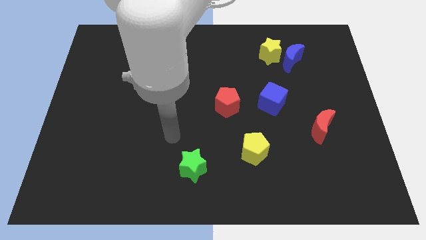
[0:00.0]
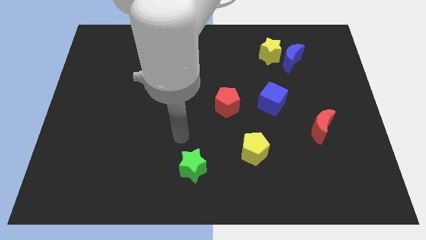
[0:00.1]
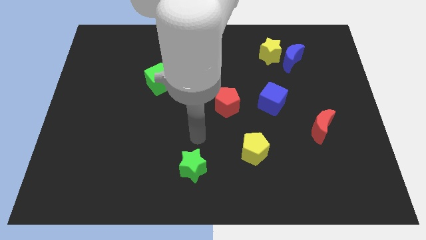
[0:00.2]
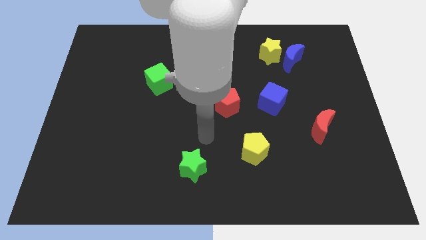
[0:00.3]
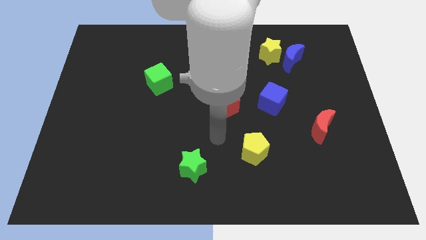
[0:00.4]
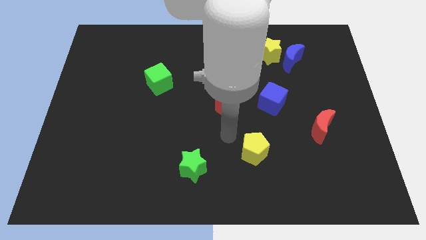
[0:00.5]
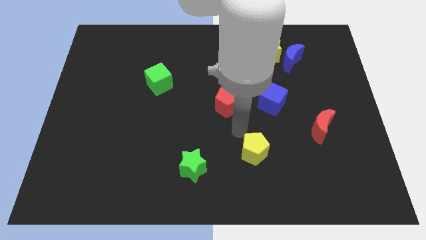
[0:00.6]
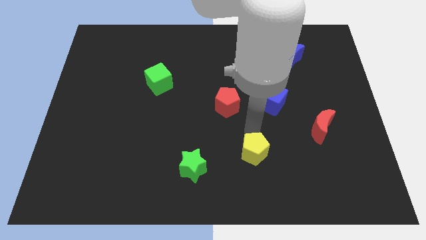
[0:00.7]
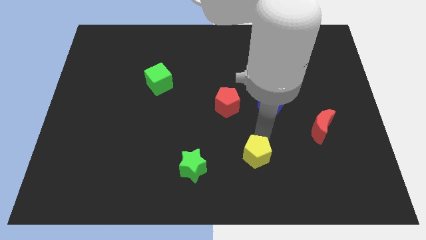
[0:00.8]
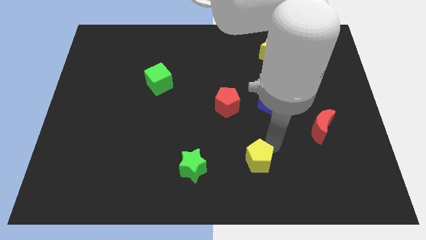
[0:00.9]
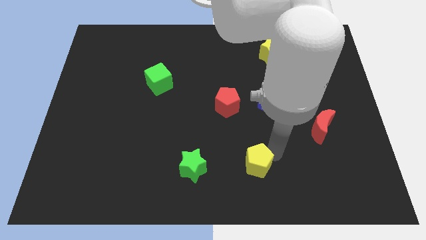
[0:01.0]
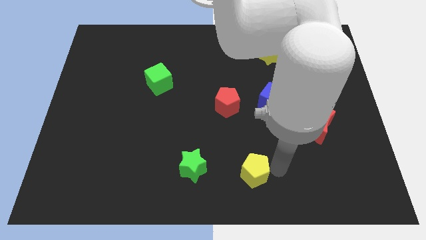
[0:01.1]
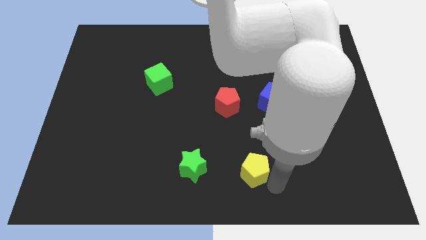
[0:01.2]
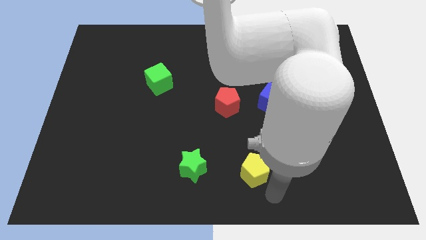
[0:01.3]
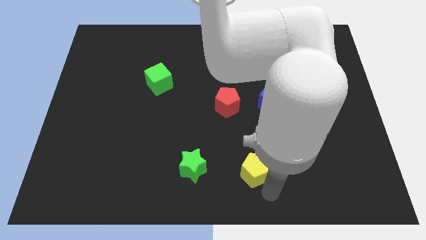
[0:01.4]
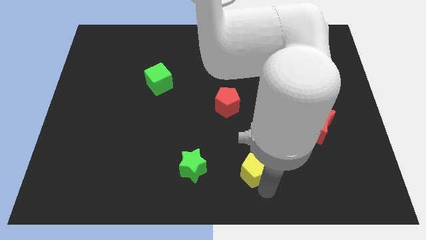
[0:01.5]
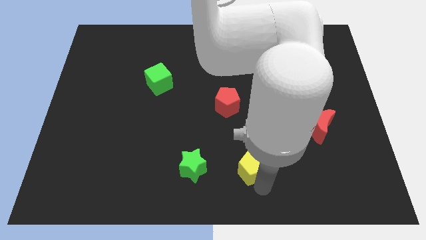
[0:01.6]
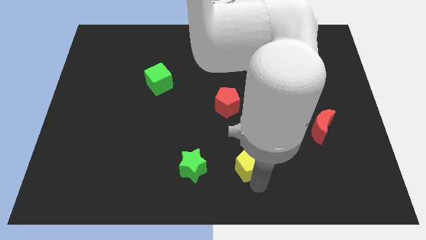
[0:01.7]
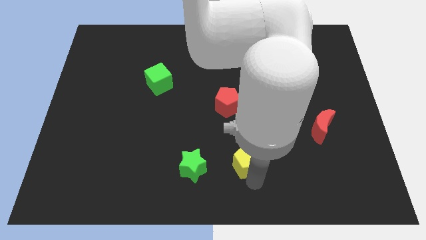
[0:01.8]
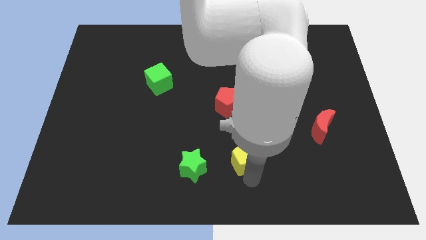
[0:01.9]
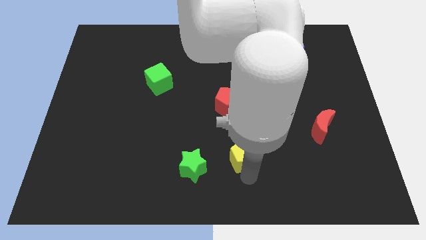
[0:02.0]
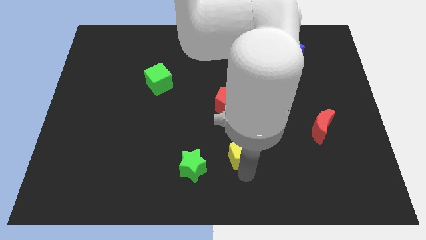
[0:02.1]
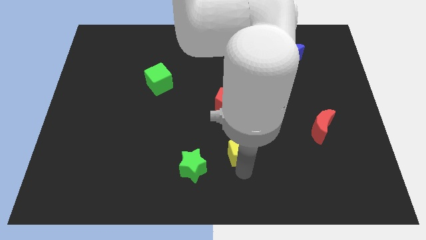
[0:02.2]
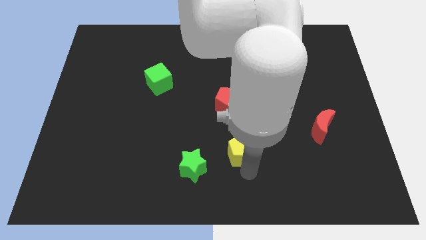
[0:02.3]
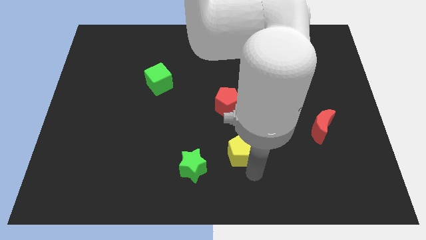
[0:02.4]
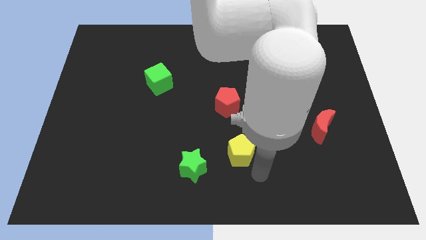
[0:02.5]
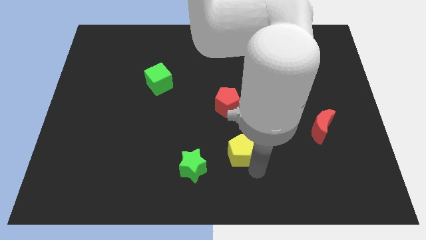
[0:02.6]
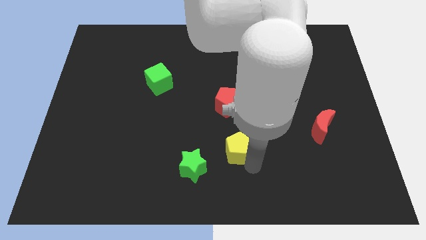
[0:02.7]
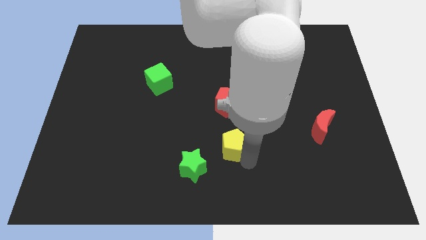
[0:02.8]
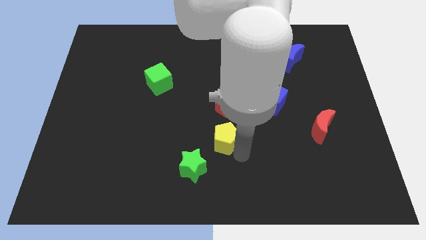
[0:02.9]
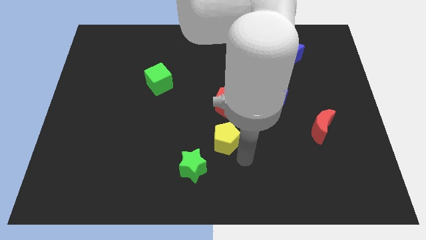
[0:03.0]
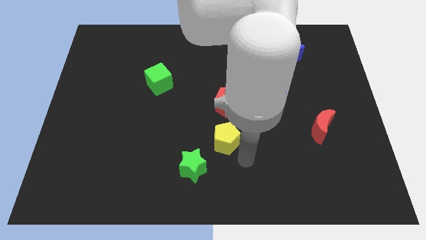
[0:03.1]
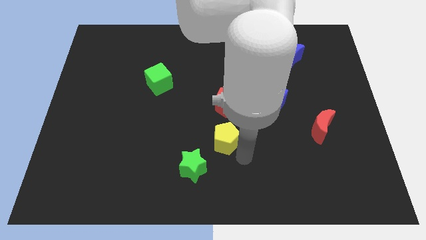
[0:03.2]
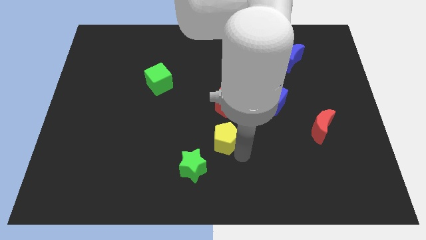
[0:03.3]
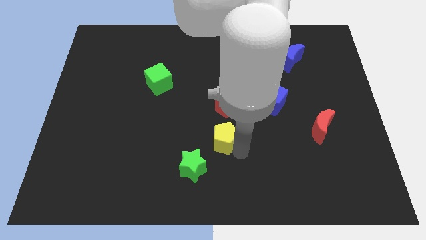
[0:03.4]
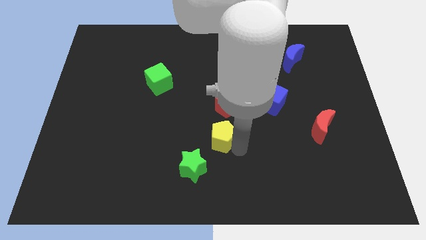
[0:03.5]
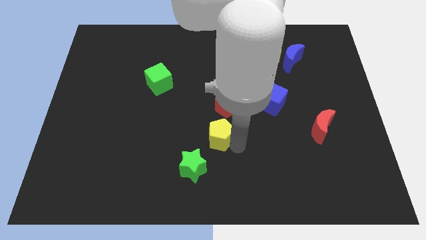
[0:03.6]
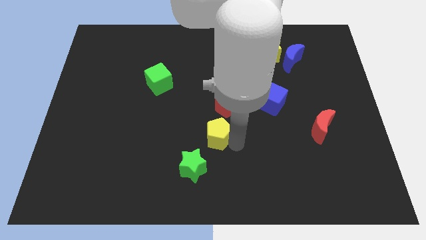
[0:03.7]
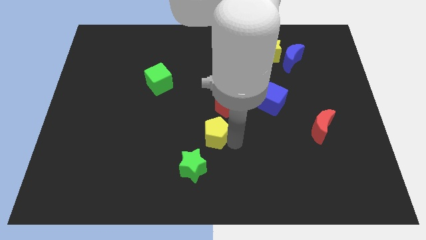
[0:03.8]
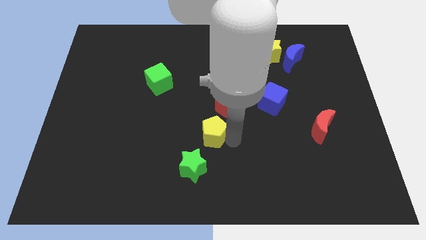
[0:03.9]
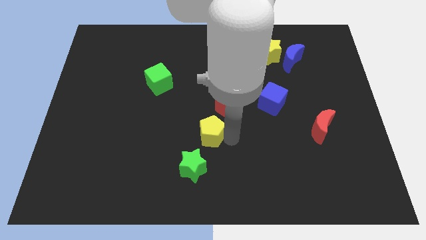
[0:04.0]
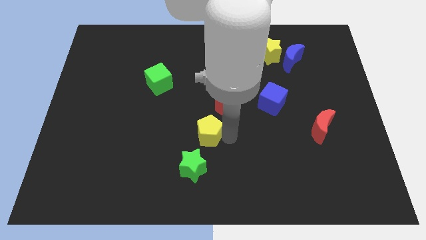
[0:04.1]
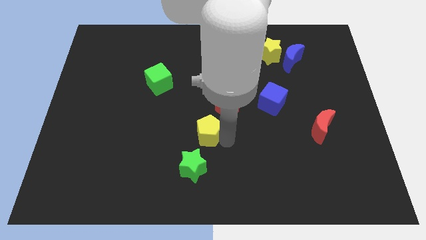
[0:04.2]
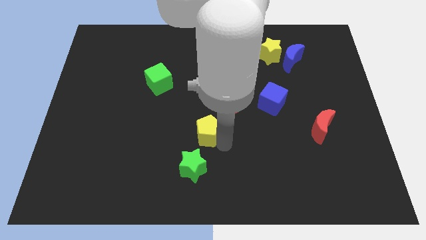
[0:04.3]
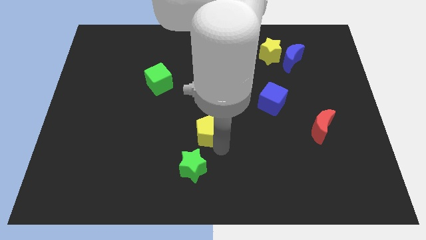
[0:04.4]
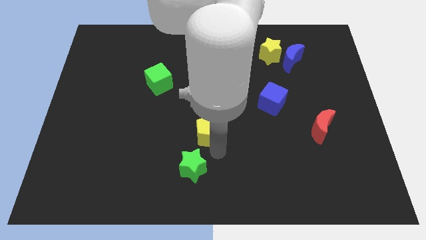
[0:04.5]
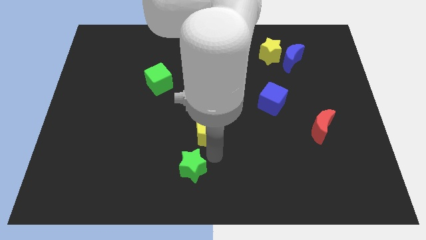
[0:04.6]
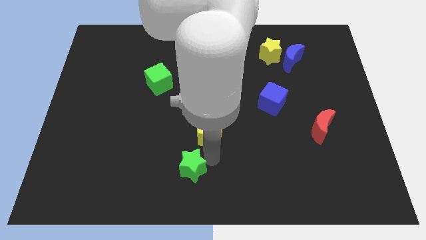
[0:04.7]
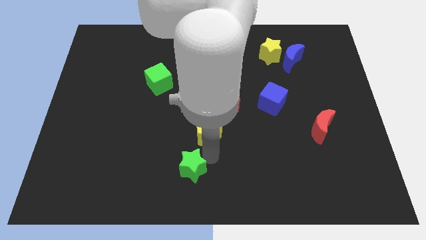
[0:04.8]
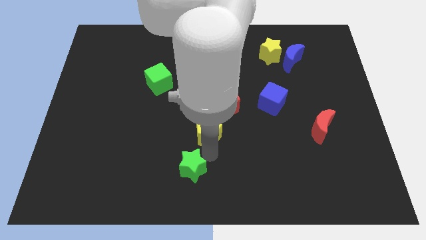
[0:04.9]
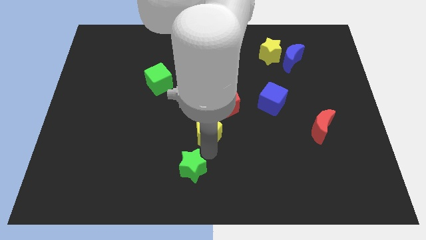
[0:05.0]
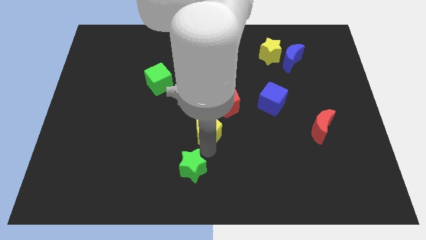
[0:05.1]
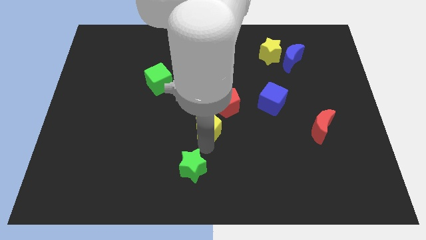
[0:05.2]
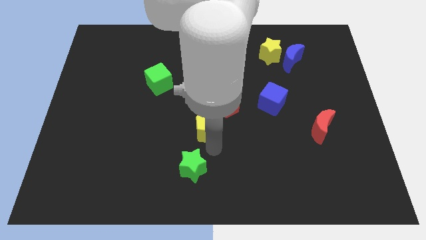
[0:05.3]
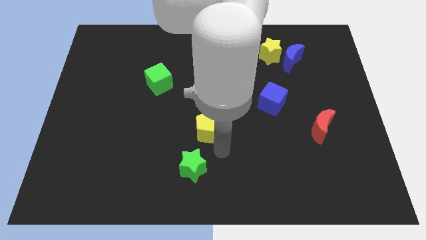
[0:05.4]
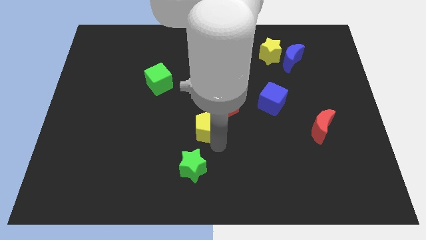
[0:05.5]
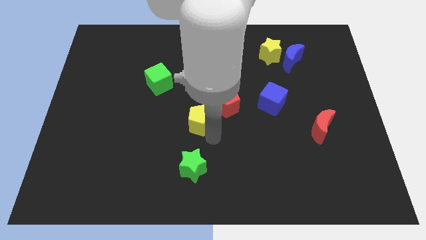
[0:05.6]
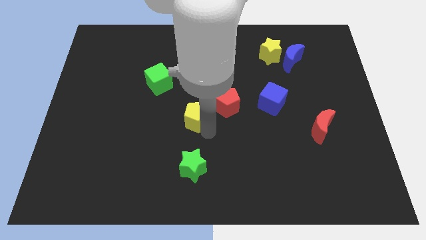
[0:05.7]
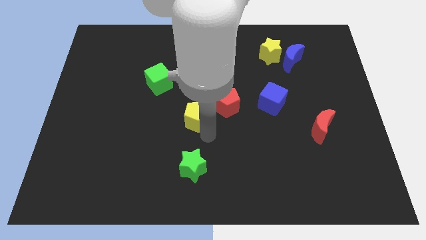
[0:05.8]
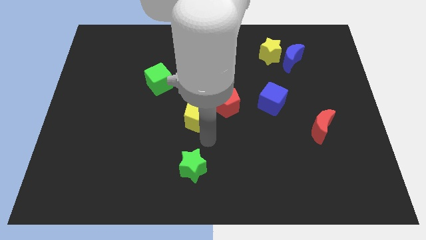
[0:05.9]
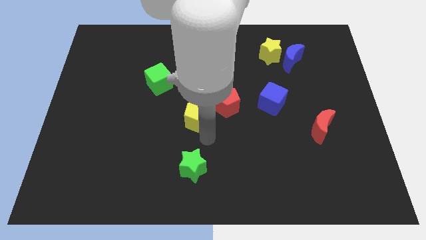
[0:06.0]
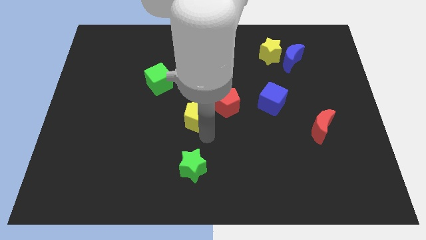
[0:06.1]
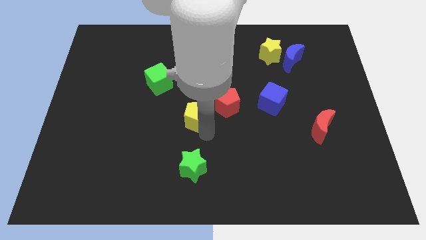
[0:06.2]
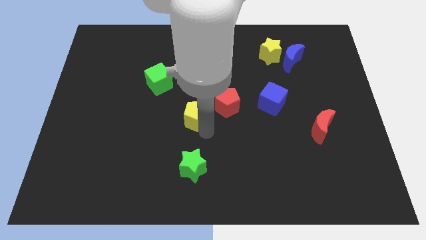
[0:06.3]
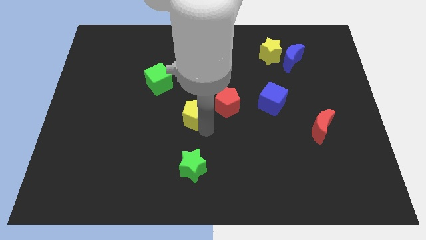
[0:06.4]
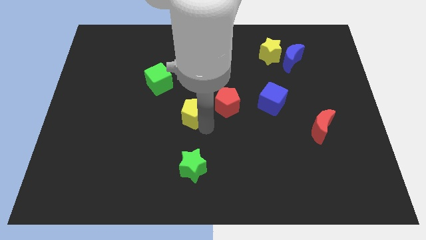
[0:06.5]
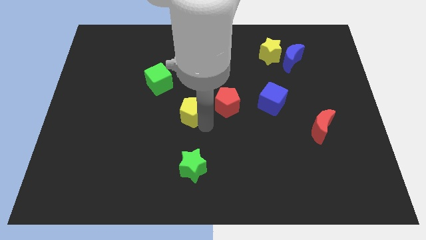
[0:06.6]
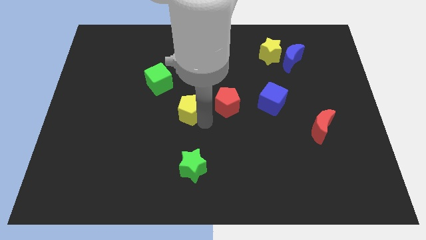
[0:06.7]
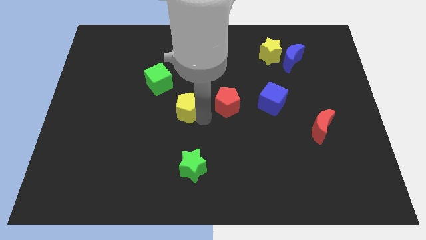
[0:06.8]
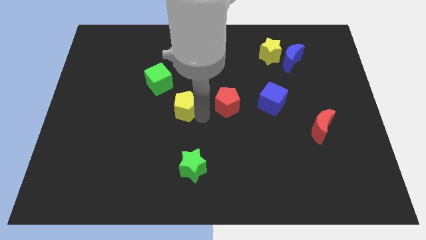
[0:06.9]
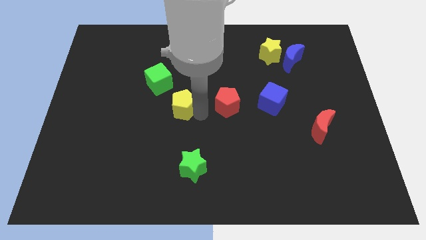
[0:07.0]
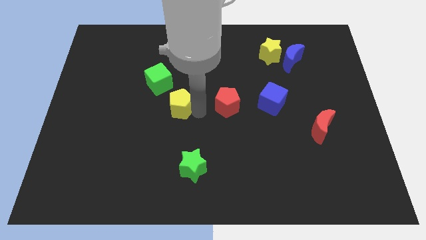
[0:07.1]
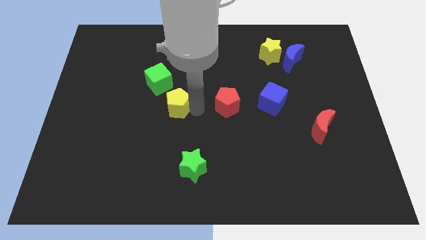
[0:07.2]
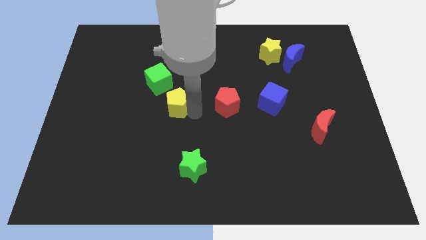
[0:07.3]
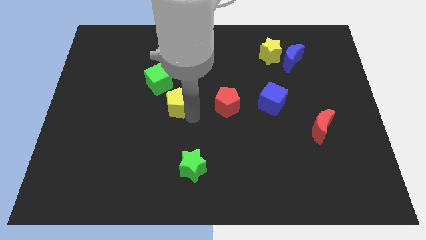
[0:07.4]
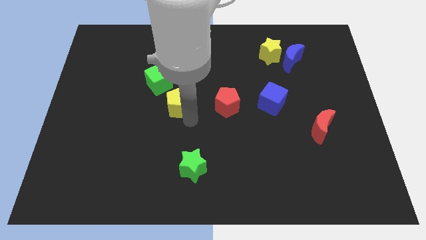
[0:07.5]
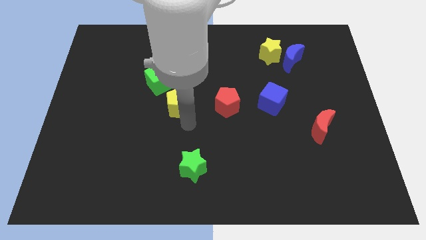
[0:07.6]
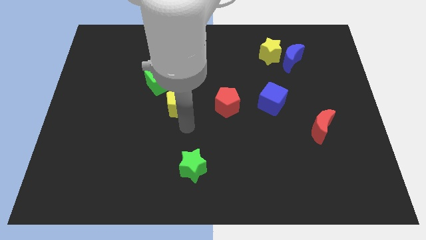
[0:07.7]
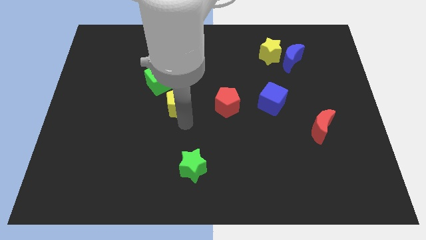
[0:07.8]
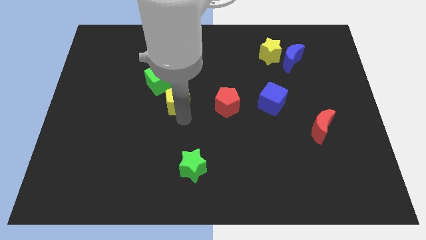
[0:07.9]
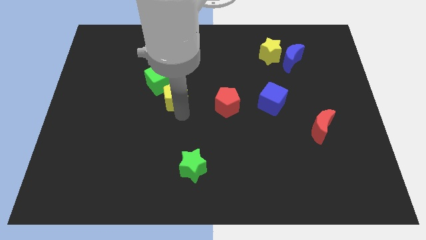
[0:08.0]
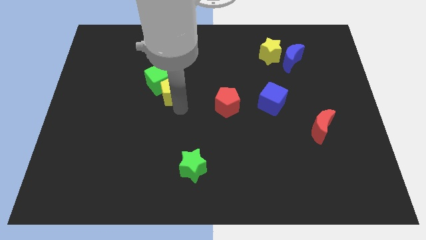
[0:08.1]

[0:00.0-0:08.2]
slide the yellow pentagon next to the green cube
